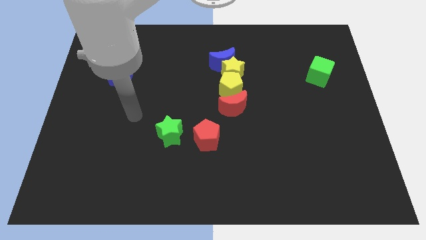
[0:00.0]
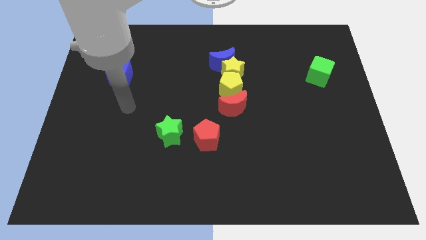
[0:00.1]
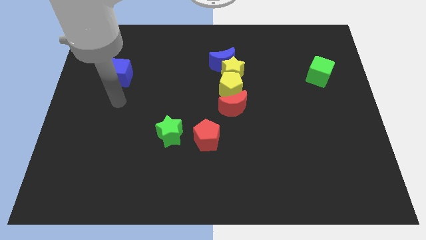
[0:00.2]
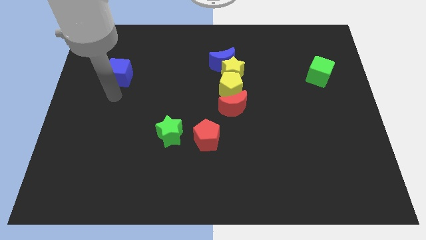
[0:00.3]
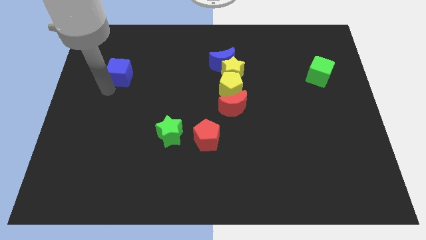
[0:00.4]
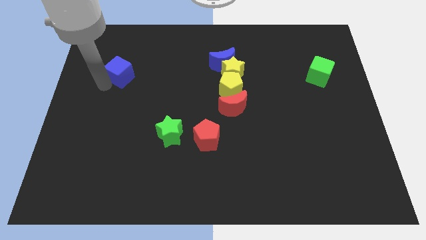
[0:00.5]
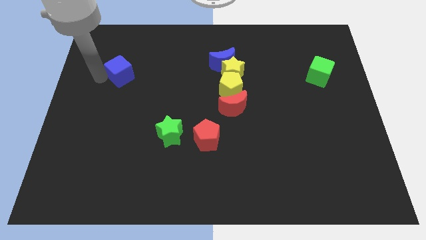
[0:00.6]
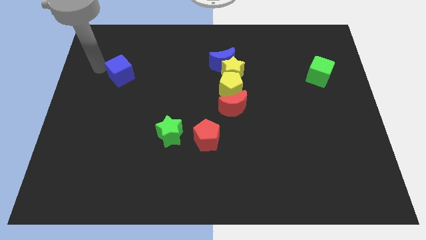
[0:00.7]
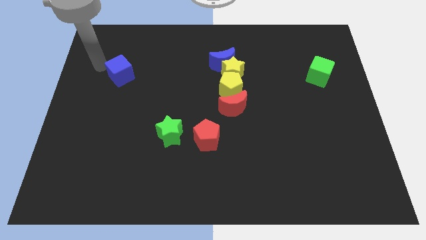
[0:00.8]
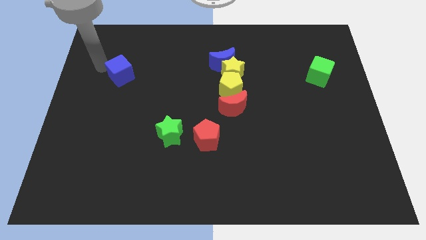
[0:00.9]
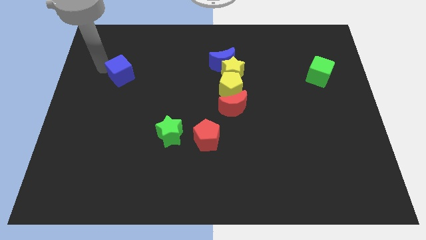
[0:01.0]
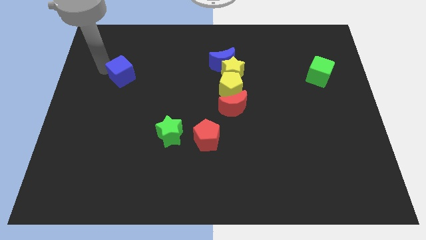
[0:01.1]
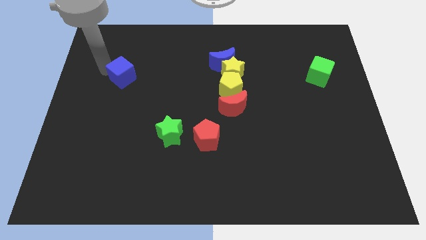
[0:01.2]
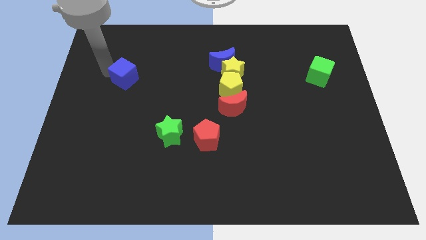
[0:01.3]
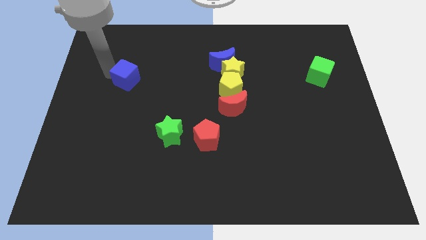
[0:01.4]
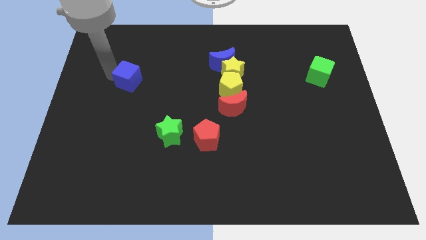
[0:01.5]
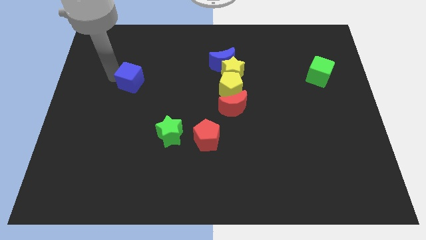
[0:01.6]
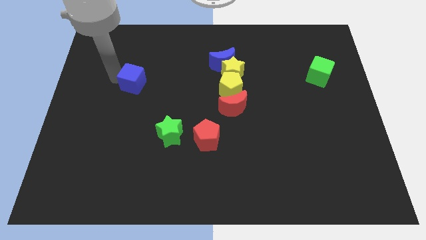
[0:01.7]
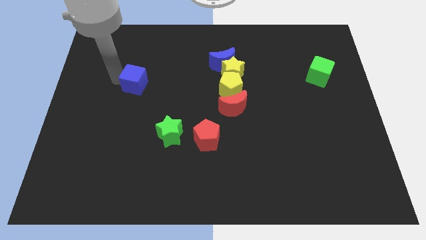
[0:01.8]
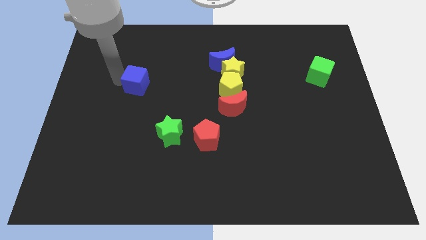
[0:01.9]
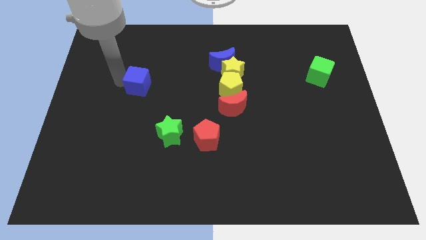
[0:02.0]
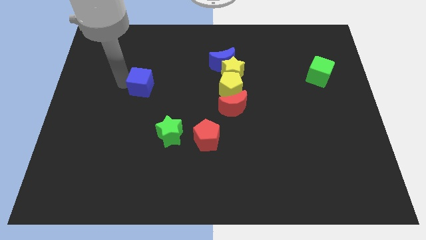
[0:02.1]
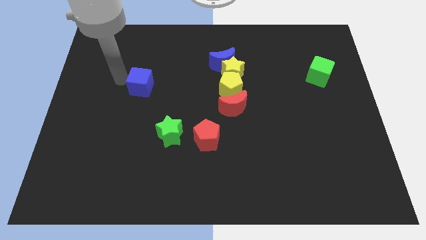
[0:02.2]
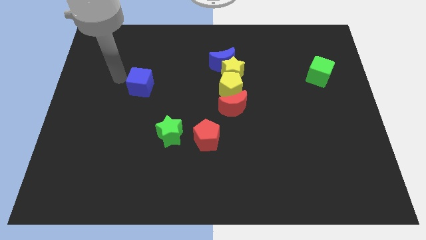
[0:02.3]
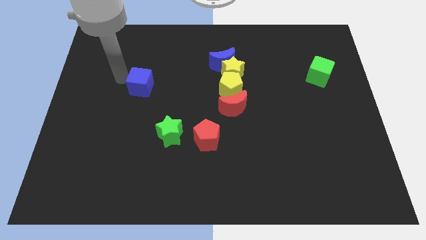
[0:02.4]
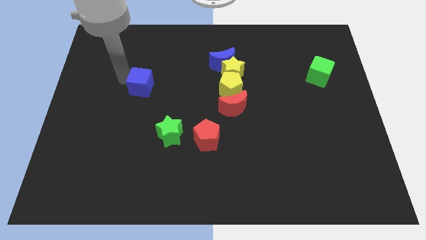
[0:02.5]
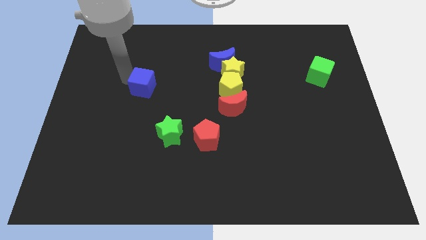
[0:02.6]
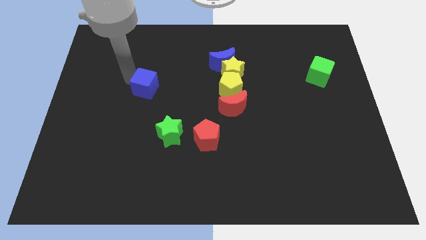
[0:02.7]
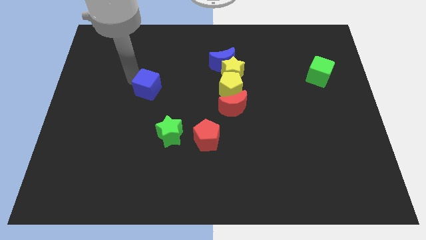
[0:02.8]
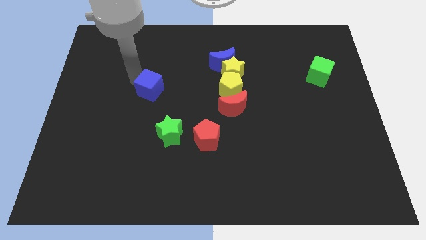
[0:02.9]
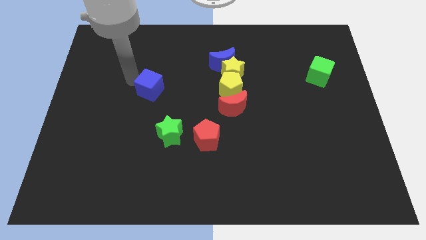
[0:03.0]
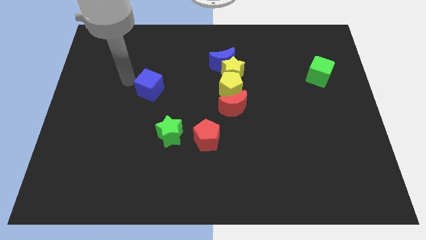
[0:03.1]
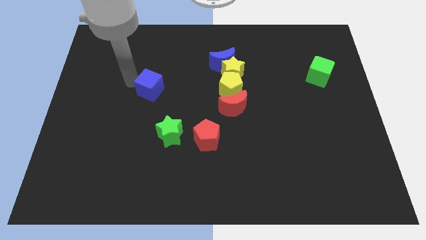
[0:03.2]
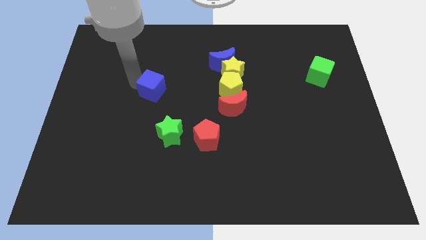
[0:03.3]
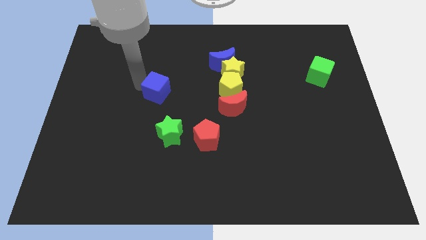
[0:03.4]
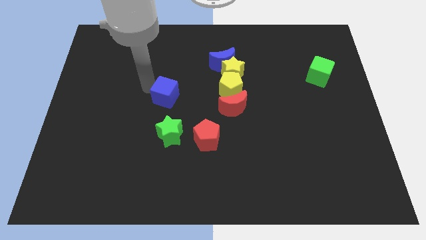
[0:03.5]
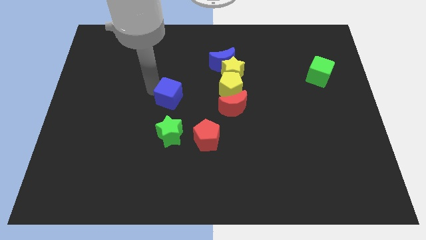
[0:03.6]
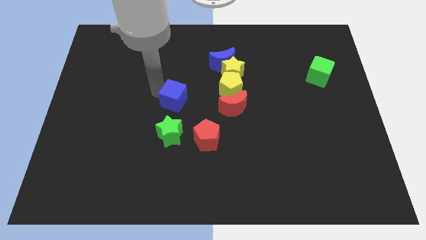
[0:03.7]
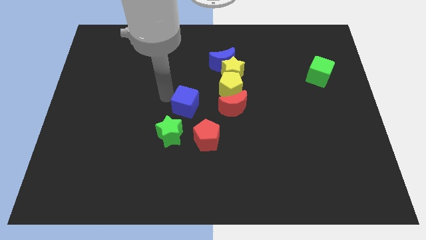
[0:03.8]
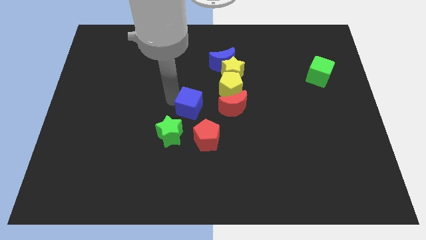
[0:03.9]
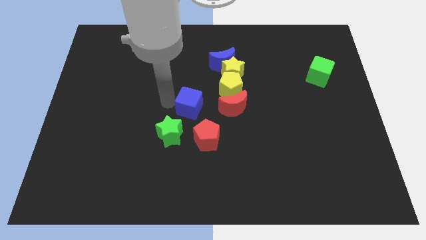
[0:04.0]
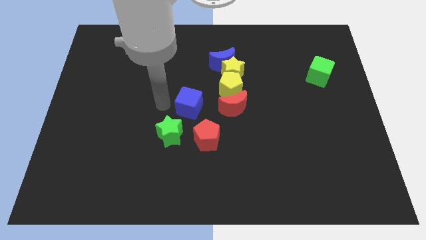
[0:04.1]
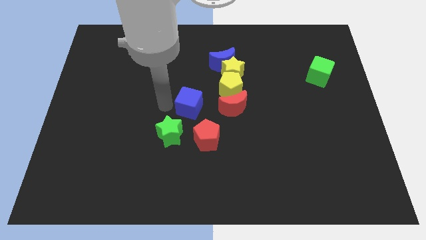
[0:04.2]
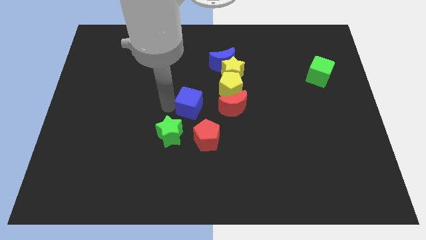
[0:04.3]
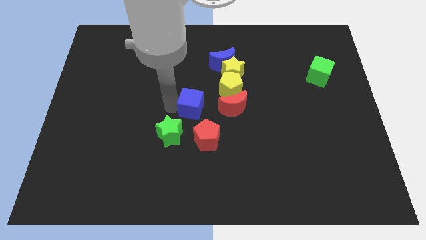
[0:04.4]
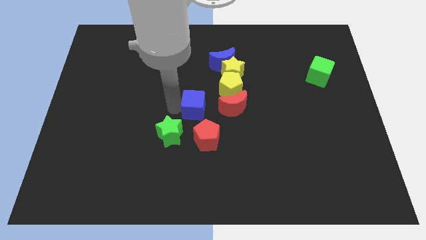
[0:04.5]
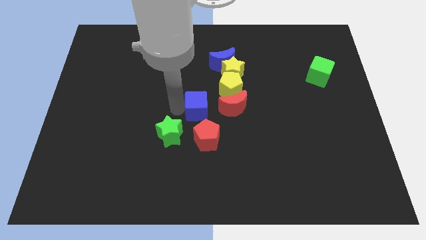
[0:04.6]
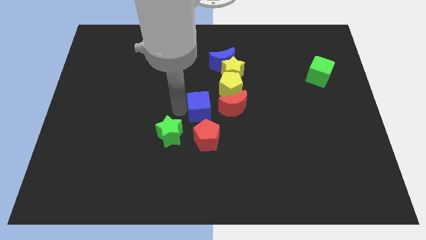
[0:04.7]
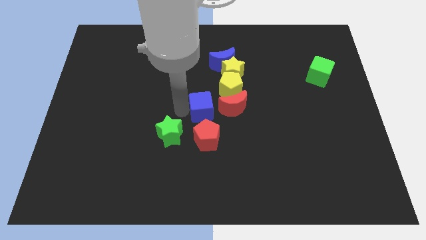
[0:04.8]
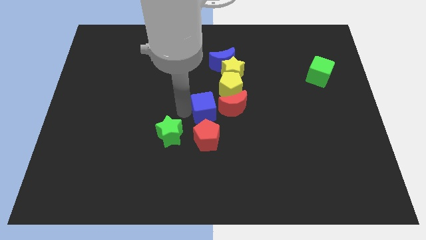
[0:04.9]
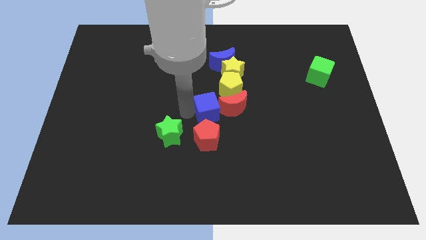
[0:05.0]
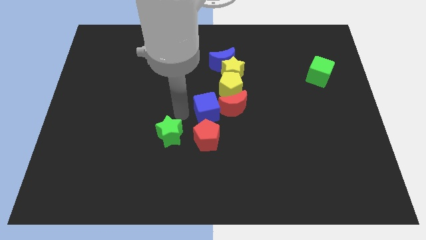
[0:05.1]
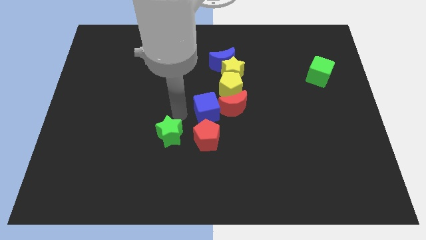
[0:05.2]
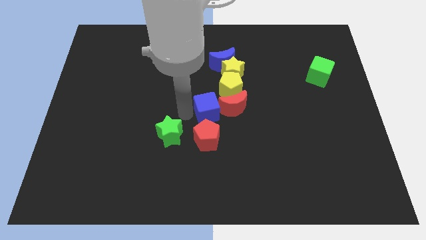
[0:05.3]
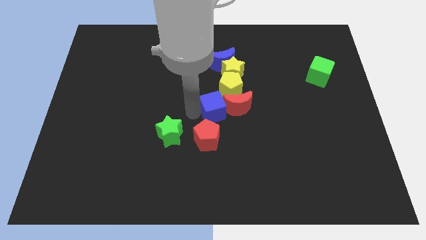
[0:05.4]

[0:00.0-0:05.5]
slide the blue cube towards the red moon

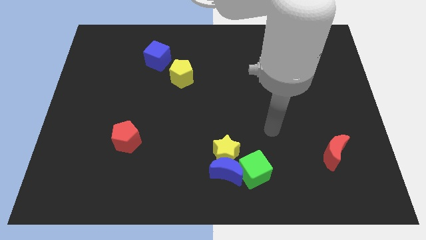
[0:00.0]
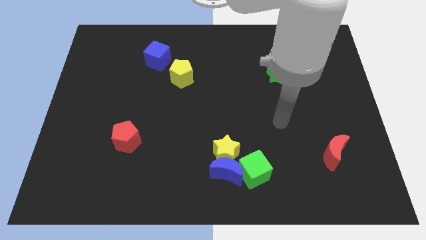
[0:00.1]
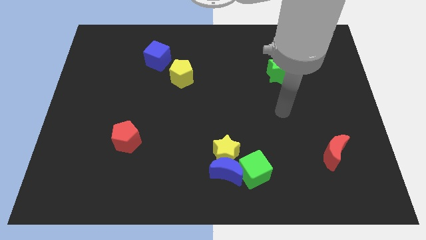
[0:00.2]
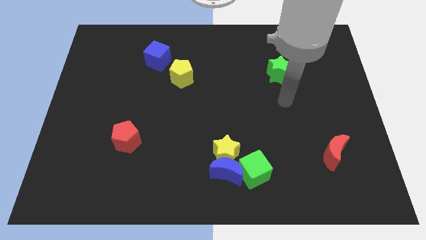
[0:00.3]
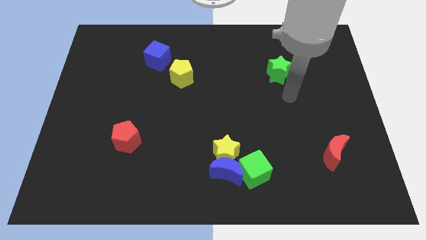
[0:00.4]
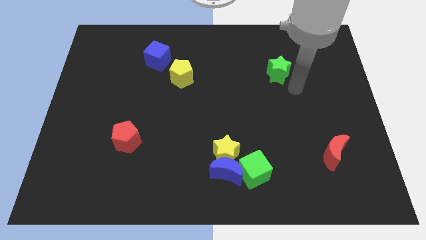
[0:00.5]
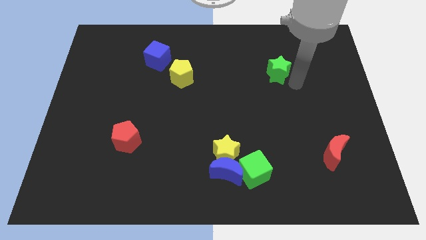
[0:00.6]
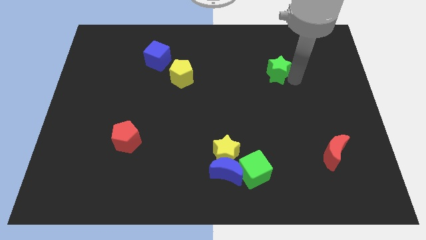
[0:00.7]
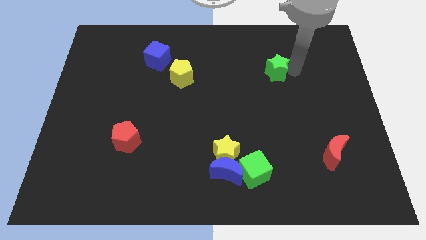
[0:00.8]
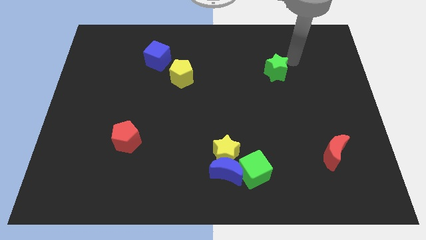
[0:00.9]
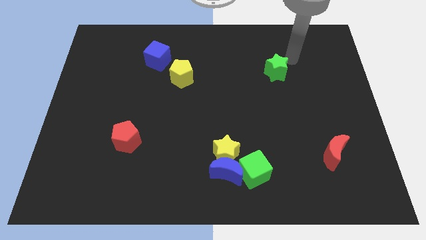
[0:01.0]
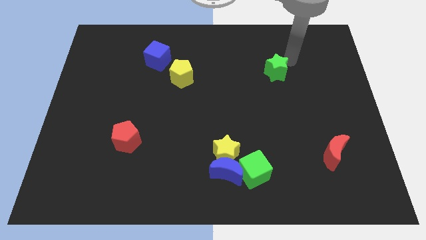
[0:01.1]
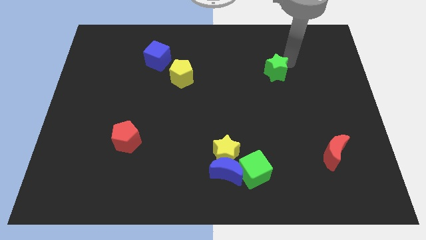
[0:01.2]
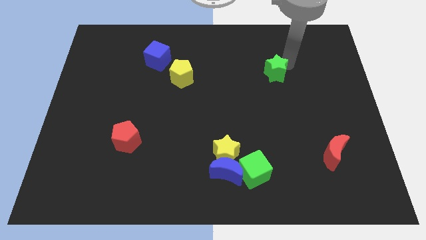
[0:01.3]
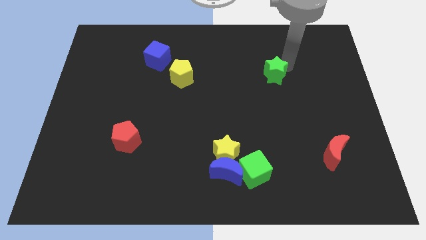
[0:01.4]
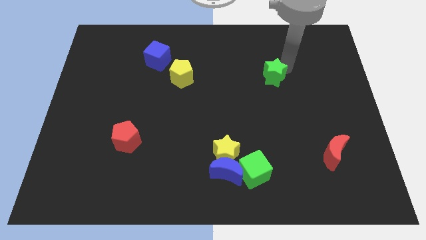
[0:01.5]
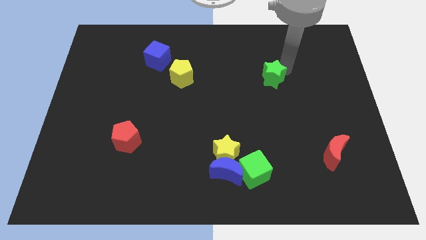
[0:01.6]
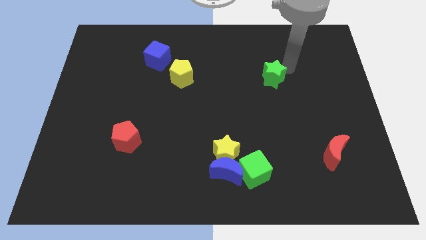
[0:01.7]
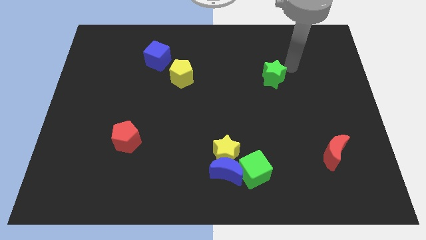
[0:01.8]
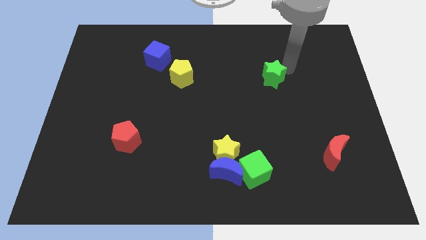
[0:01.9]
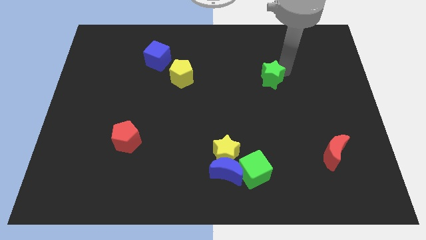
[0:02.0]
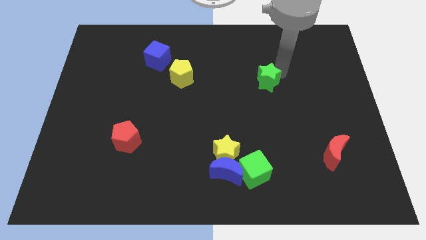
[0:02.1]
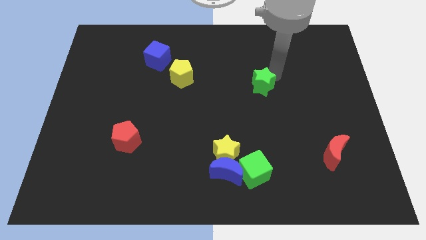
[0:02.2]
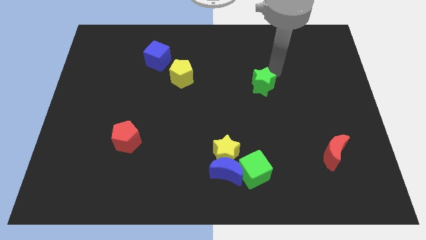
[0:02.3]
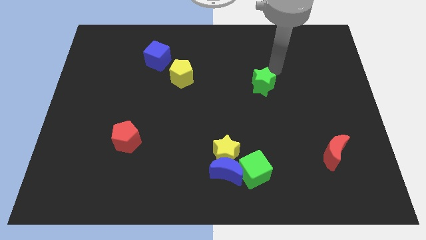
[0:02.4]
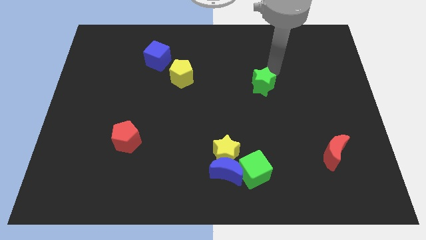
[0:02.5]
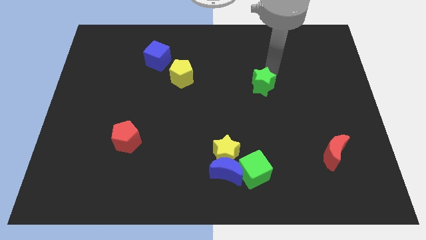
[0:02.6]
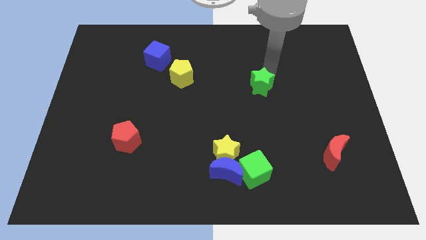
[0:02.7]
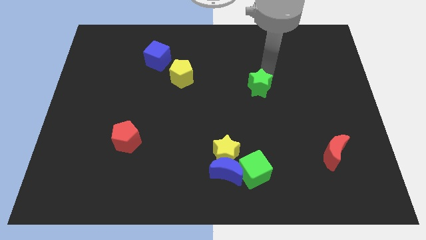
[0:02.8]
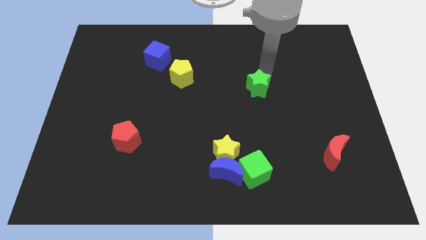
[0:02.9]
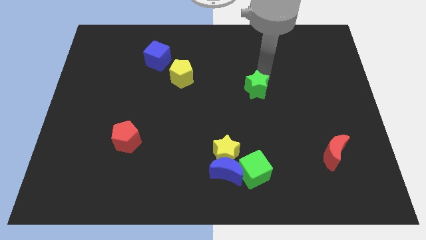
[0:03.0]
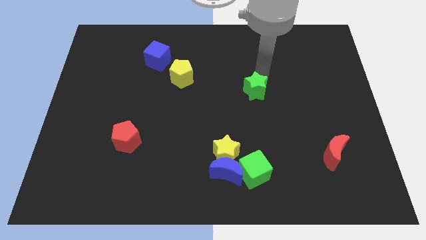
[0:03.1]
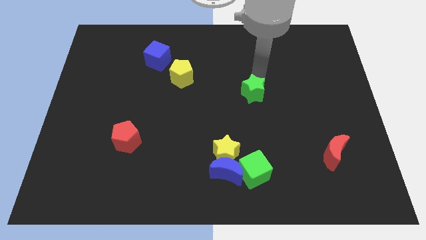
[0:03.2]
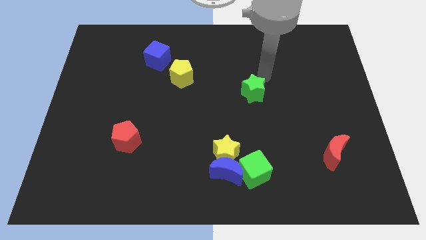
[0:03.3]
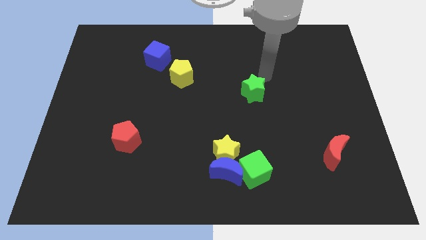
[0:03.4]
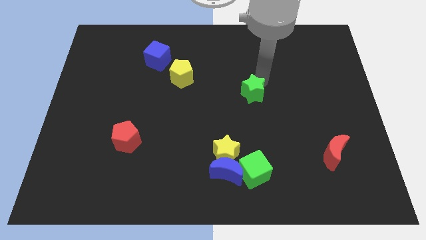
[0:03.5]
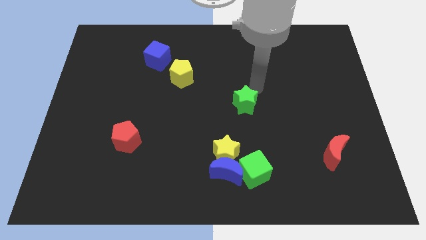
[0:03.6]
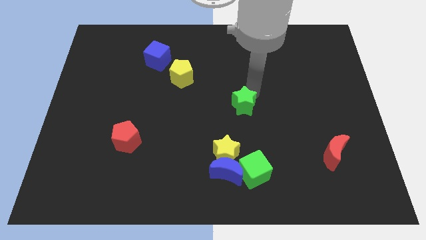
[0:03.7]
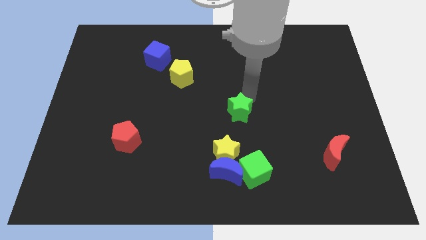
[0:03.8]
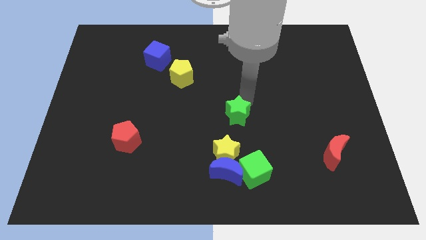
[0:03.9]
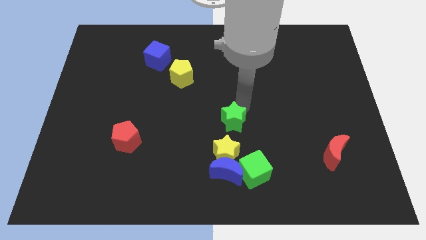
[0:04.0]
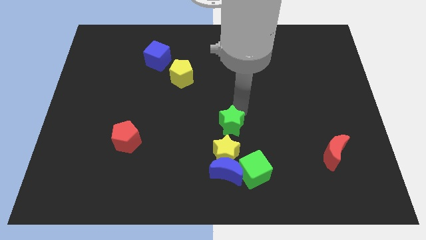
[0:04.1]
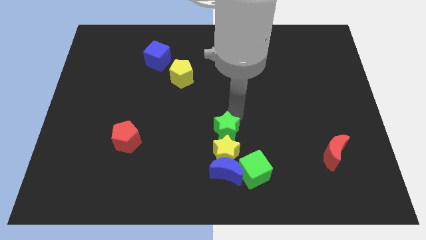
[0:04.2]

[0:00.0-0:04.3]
slide the green star towards the yellow star
